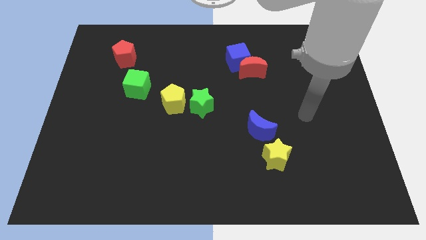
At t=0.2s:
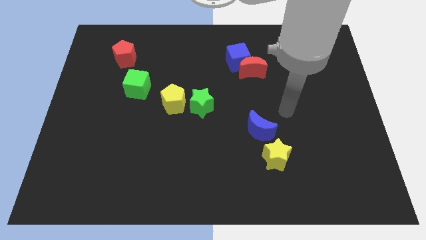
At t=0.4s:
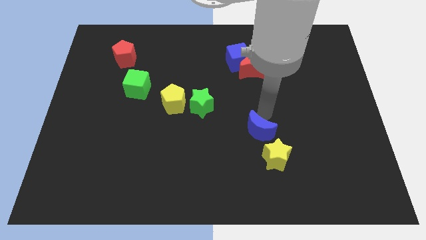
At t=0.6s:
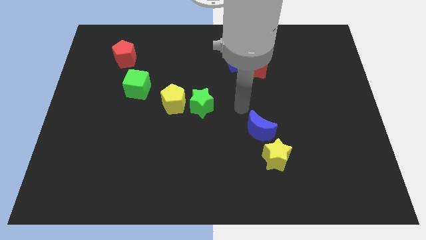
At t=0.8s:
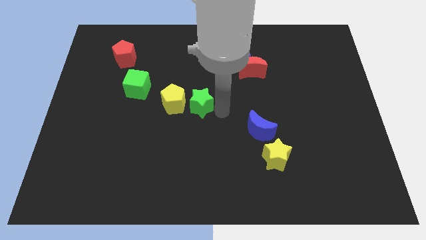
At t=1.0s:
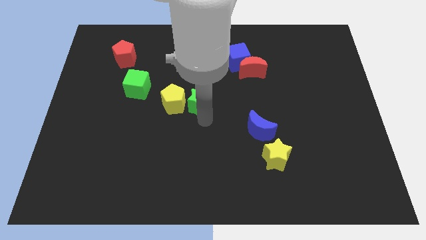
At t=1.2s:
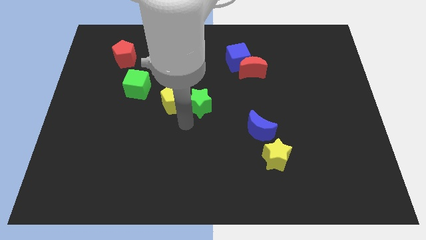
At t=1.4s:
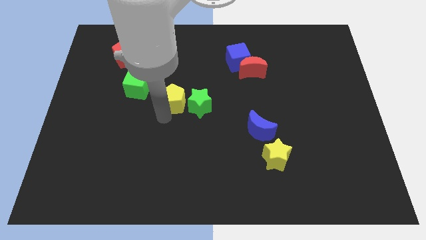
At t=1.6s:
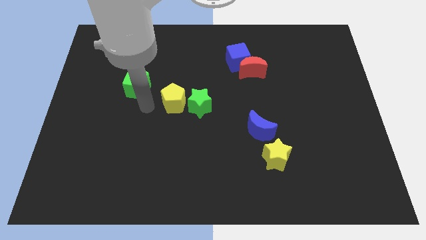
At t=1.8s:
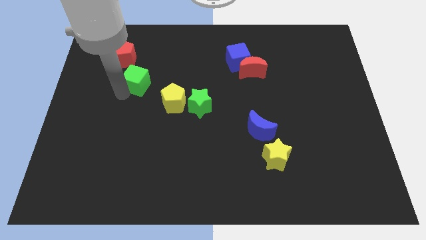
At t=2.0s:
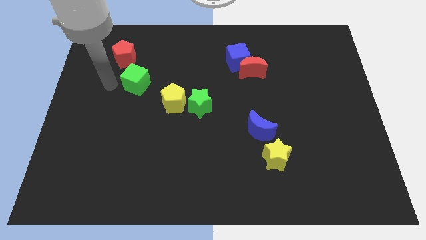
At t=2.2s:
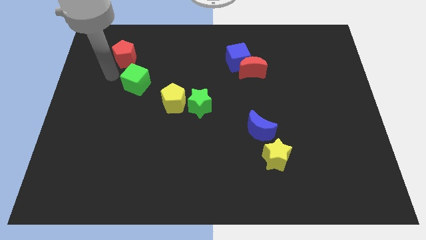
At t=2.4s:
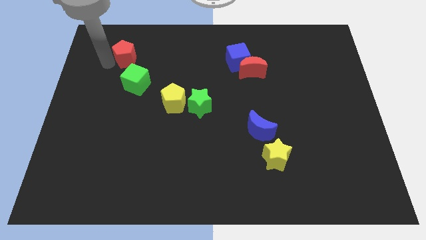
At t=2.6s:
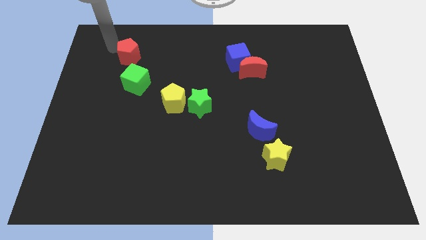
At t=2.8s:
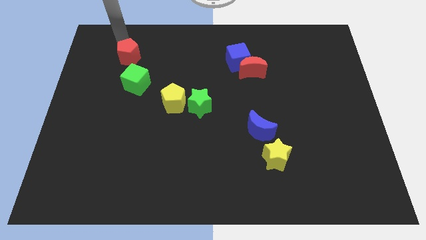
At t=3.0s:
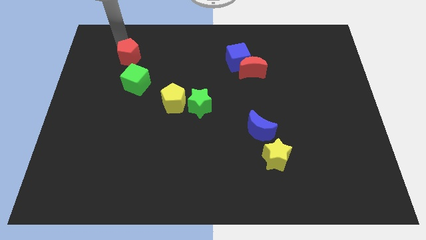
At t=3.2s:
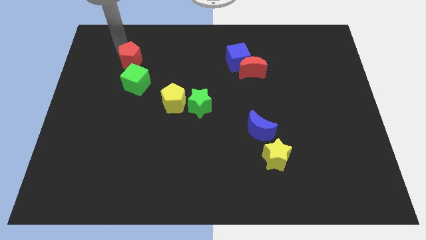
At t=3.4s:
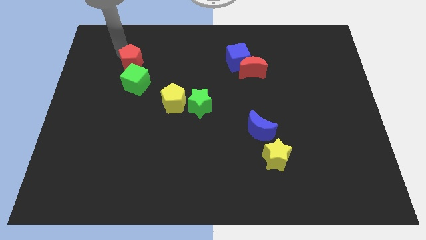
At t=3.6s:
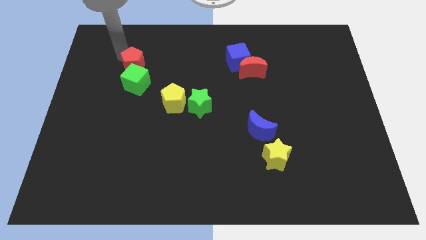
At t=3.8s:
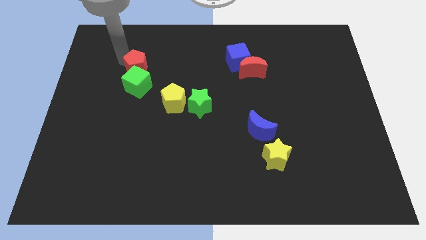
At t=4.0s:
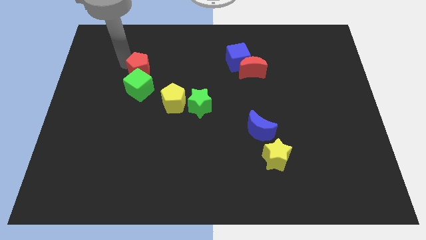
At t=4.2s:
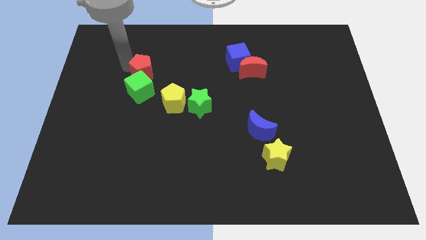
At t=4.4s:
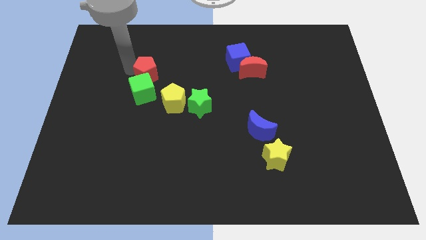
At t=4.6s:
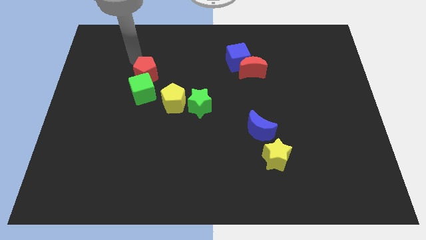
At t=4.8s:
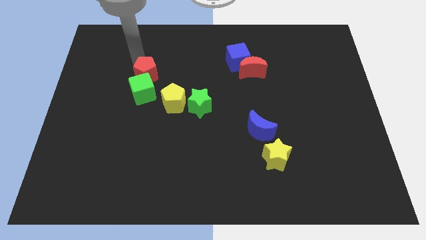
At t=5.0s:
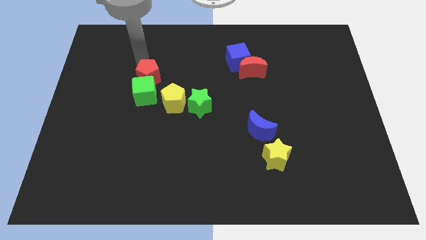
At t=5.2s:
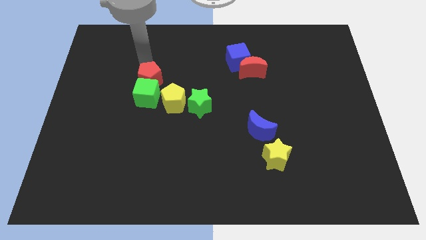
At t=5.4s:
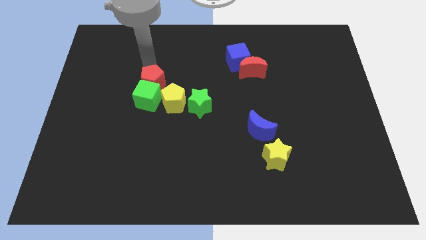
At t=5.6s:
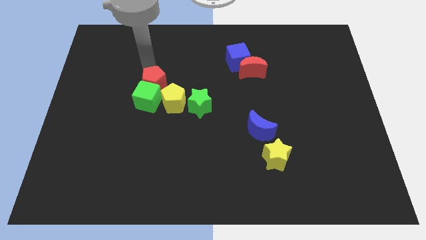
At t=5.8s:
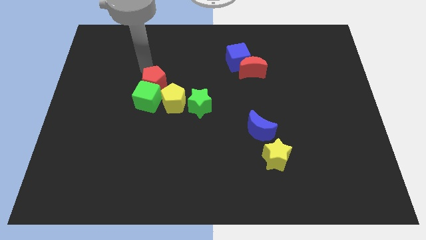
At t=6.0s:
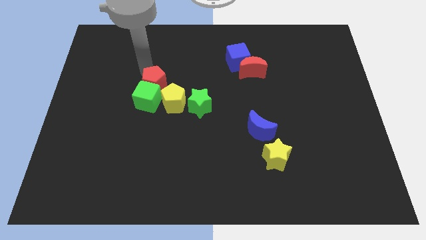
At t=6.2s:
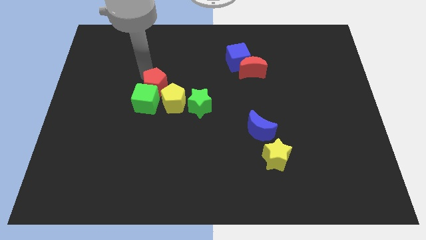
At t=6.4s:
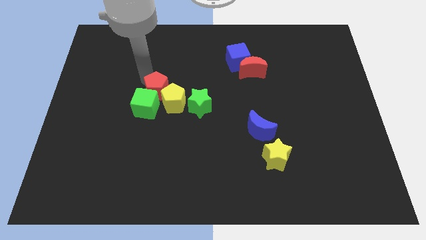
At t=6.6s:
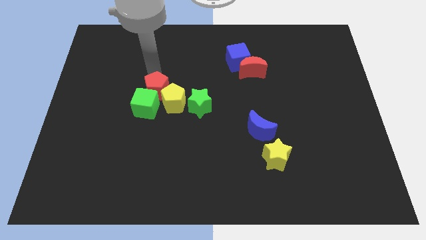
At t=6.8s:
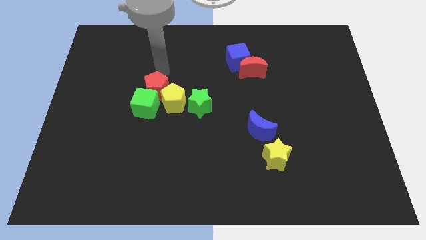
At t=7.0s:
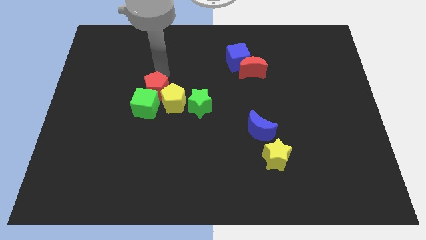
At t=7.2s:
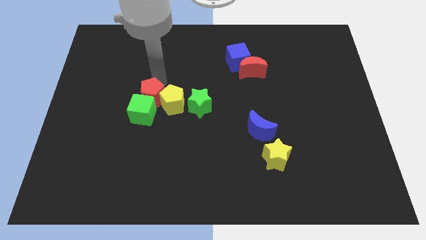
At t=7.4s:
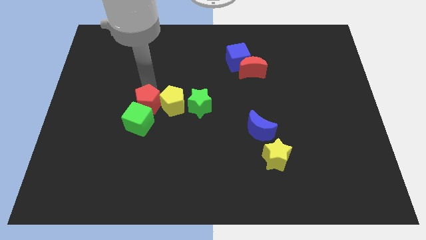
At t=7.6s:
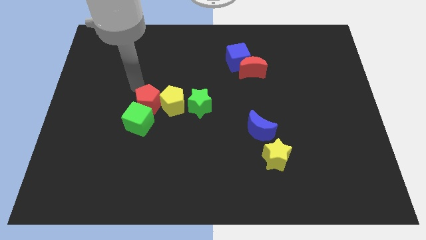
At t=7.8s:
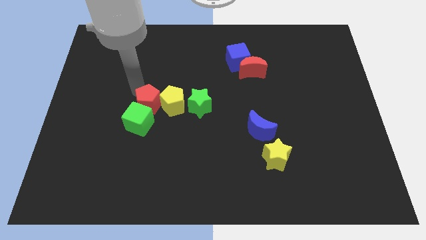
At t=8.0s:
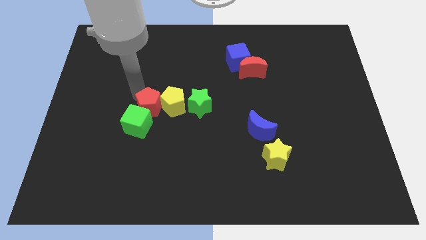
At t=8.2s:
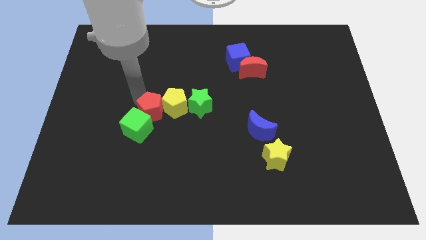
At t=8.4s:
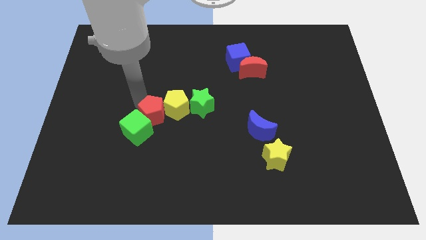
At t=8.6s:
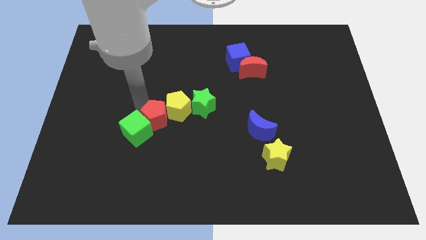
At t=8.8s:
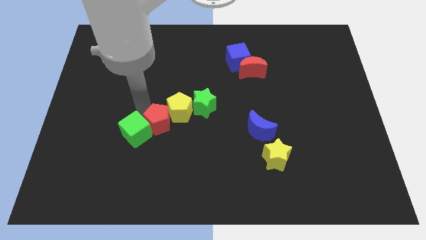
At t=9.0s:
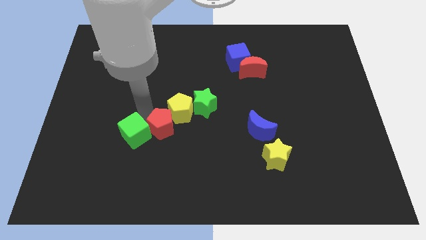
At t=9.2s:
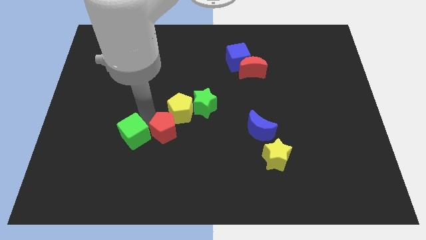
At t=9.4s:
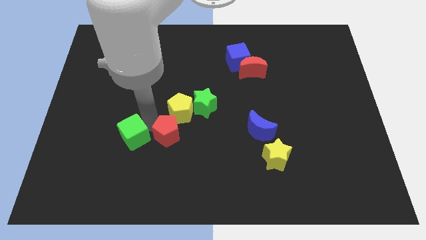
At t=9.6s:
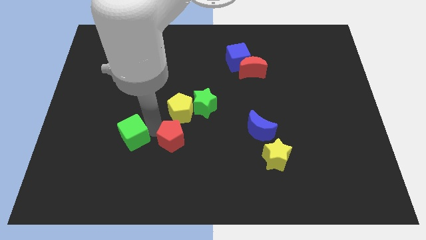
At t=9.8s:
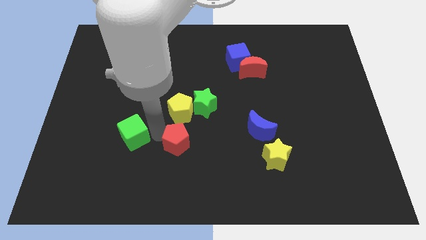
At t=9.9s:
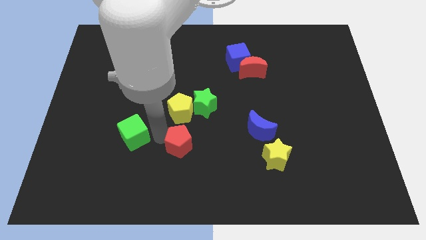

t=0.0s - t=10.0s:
push the red pentagon to the bottom of the green star

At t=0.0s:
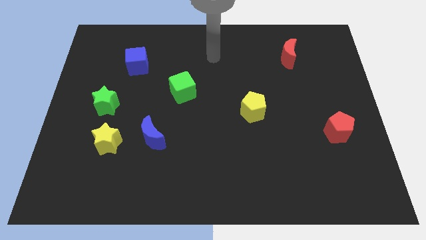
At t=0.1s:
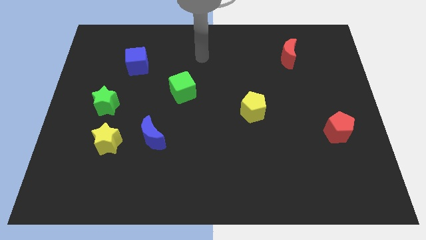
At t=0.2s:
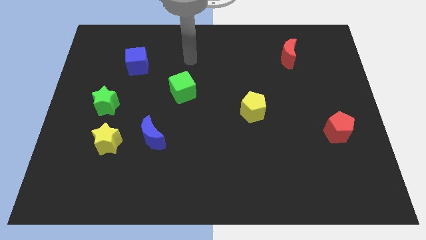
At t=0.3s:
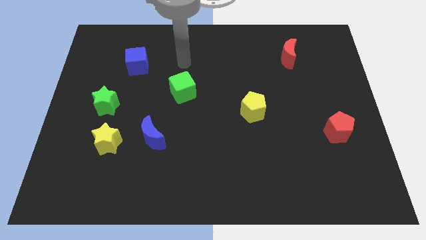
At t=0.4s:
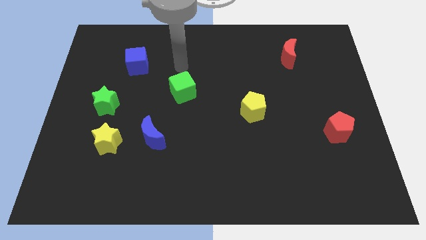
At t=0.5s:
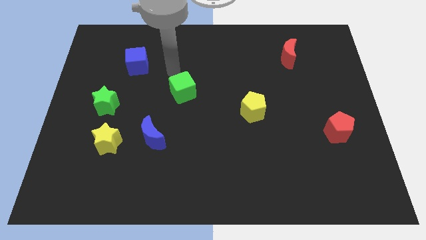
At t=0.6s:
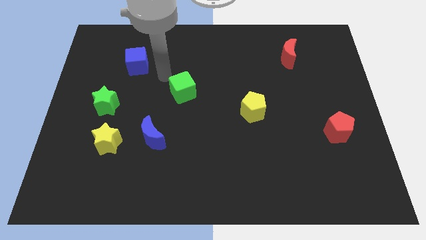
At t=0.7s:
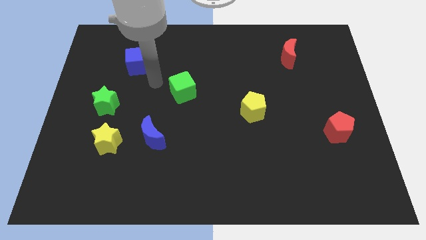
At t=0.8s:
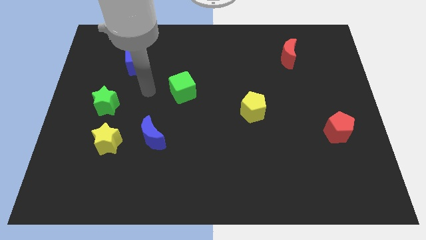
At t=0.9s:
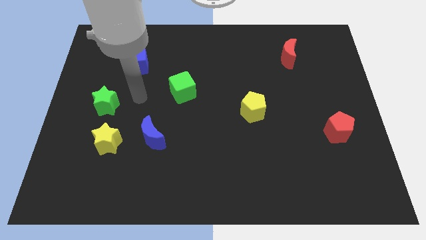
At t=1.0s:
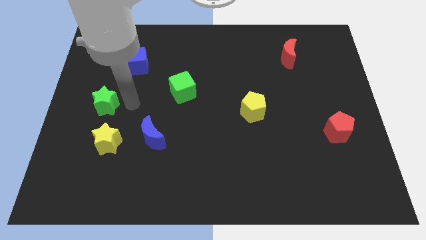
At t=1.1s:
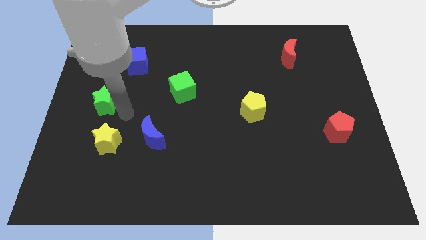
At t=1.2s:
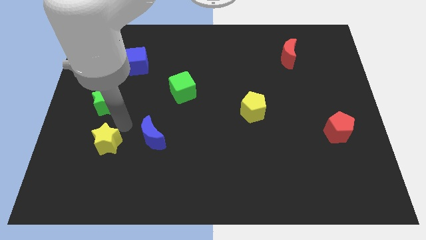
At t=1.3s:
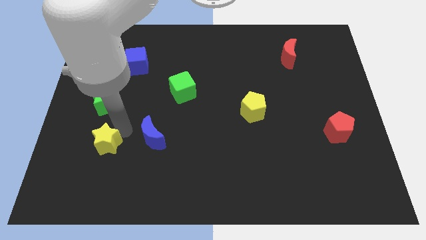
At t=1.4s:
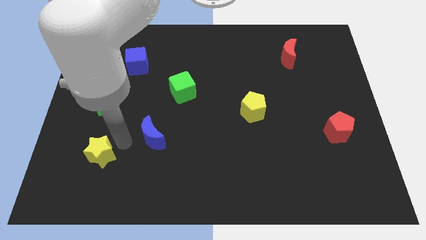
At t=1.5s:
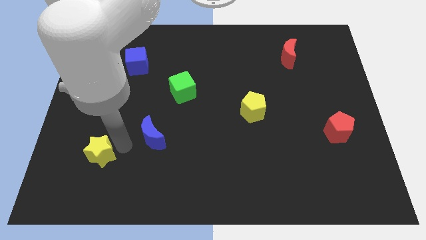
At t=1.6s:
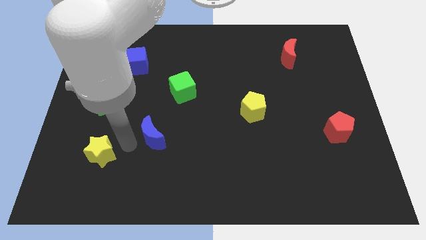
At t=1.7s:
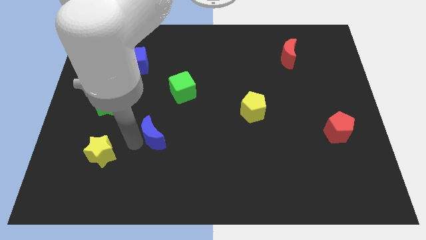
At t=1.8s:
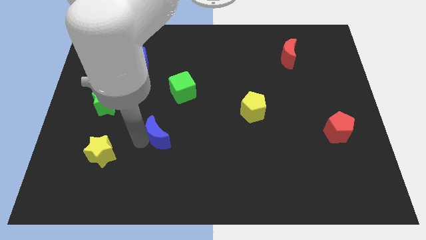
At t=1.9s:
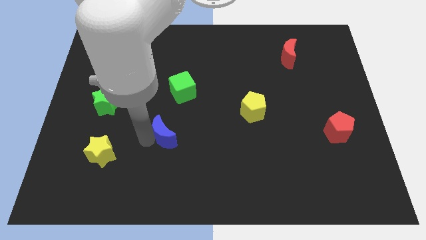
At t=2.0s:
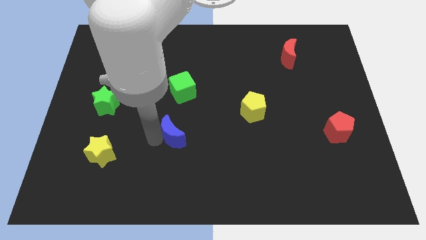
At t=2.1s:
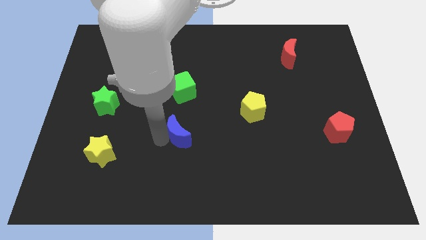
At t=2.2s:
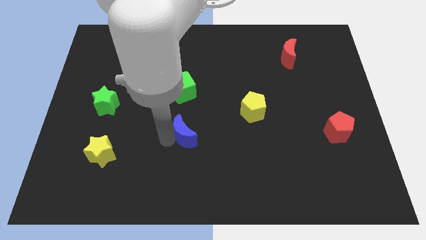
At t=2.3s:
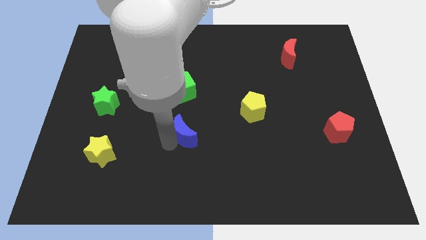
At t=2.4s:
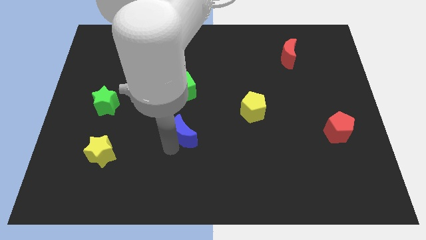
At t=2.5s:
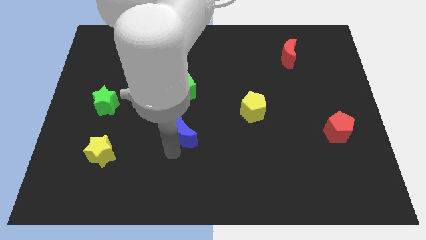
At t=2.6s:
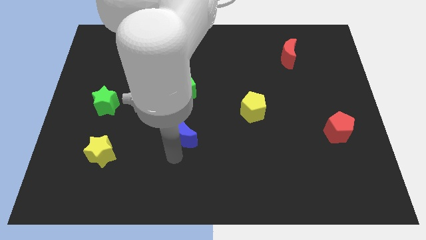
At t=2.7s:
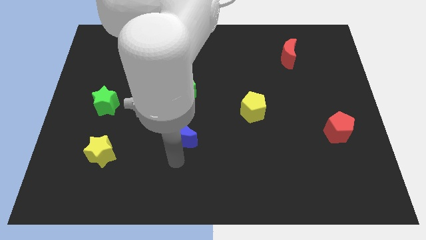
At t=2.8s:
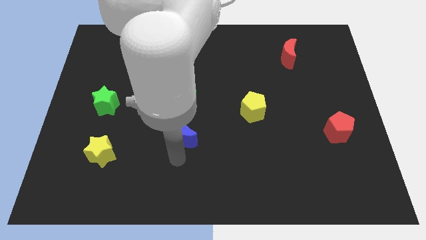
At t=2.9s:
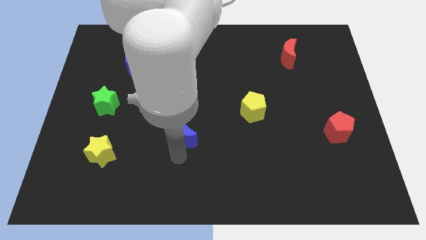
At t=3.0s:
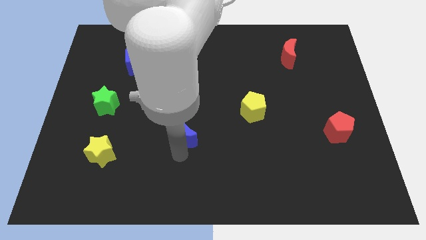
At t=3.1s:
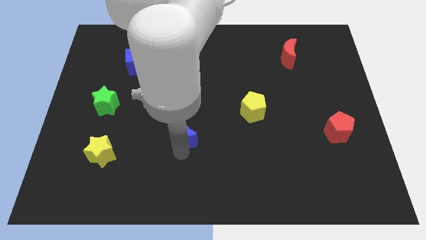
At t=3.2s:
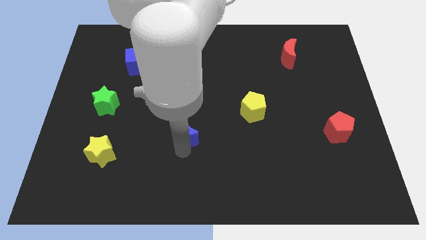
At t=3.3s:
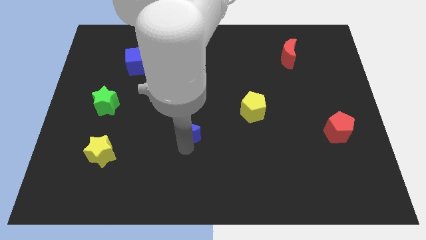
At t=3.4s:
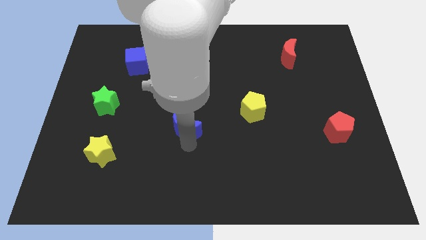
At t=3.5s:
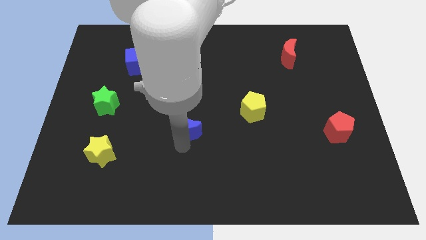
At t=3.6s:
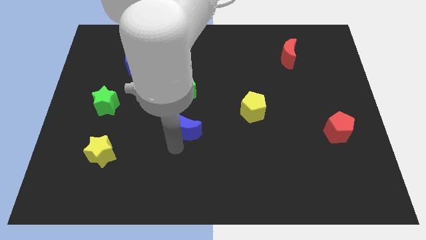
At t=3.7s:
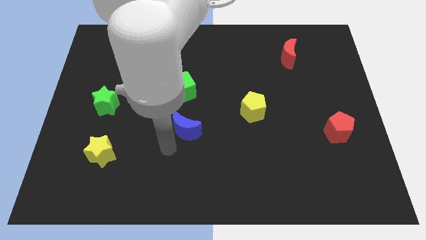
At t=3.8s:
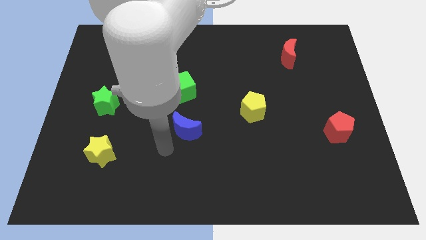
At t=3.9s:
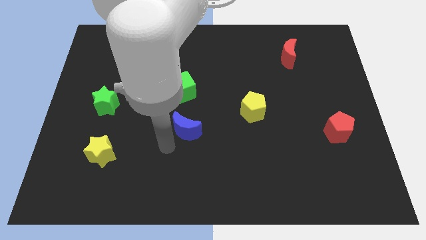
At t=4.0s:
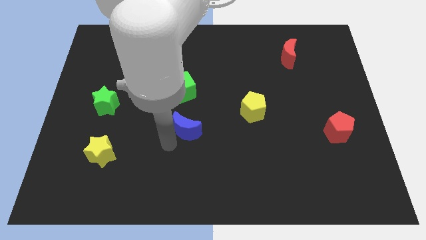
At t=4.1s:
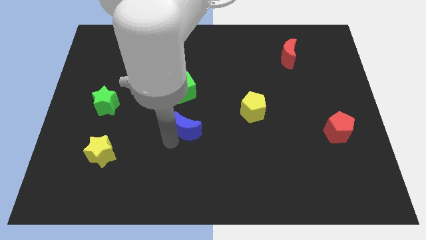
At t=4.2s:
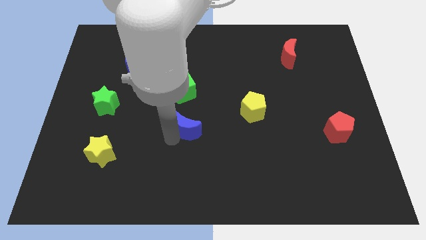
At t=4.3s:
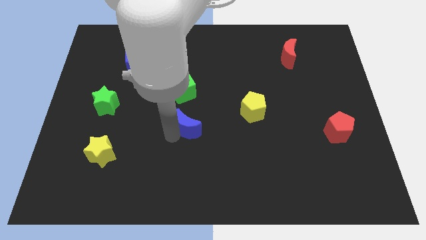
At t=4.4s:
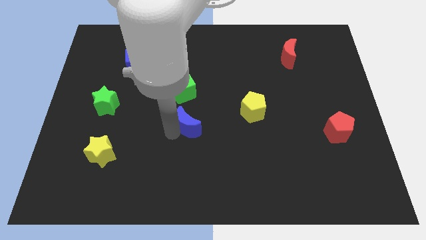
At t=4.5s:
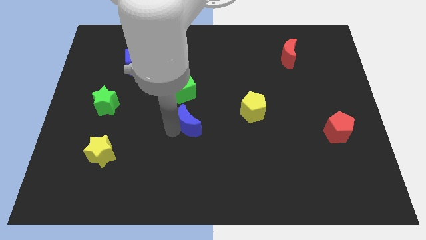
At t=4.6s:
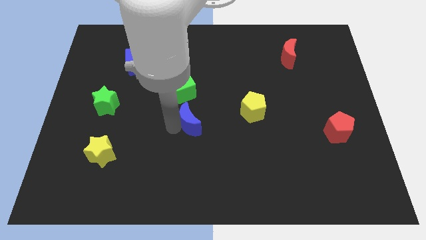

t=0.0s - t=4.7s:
slide the blue moon to the left side of the yellow pentagon
